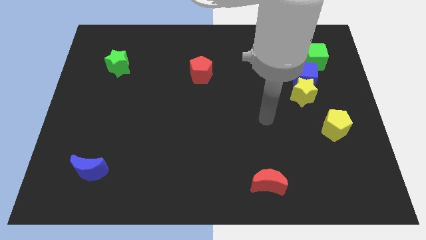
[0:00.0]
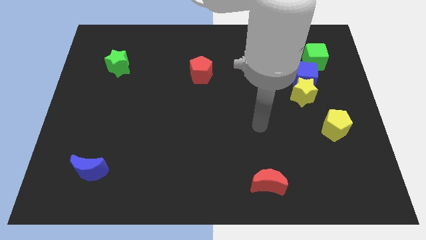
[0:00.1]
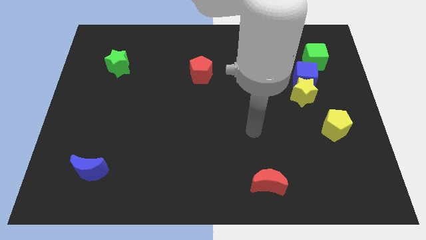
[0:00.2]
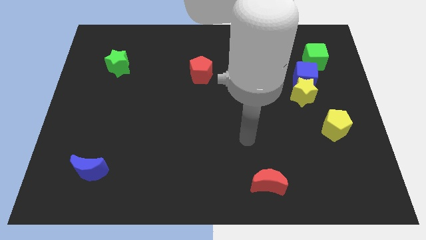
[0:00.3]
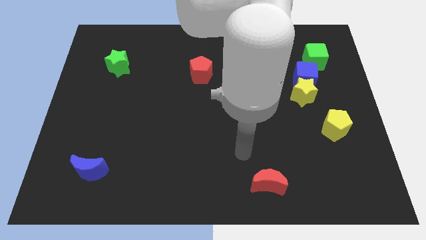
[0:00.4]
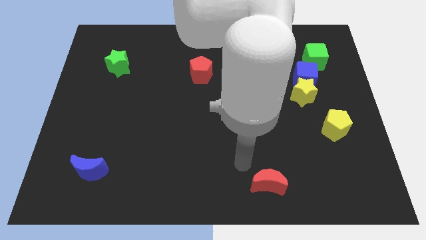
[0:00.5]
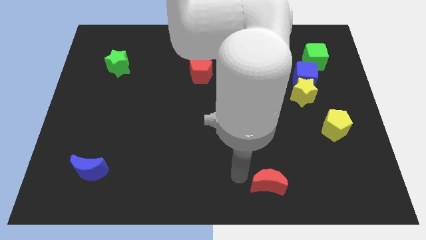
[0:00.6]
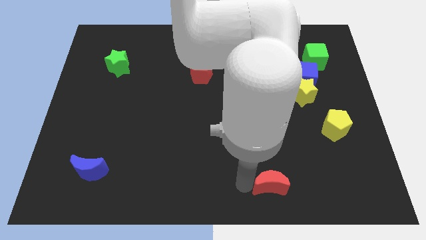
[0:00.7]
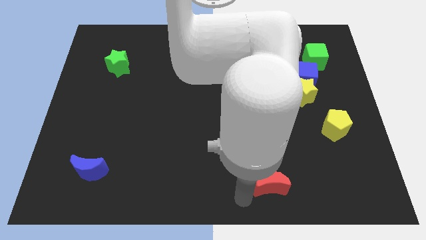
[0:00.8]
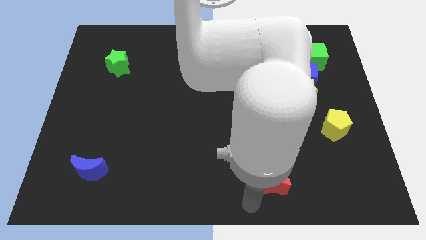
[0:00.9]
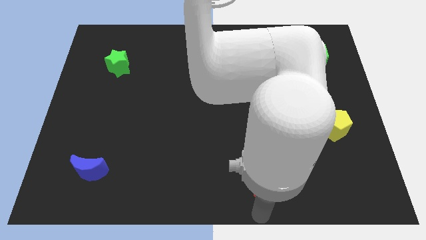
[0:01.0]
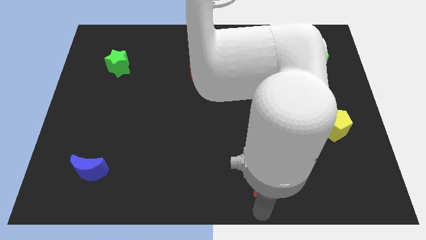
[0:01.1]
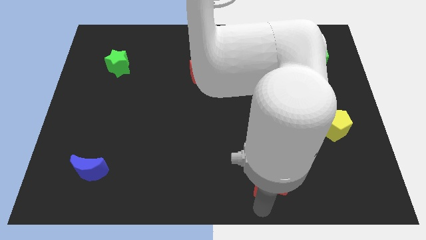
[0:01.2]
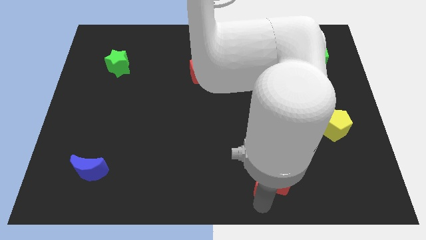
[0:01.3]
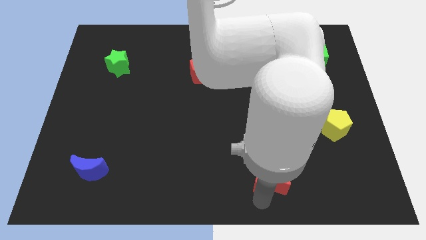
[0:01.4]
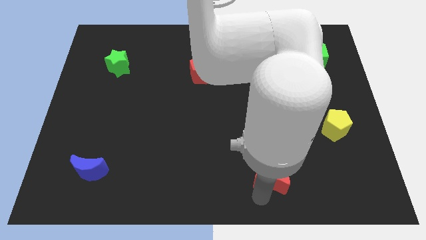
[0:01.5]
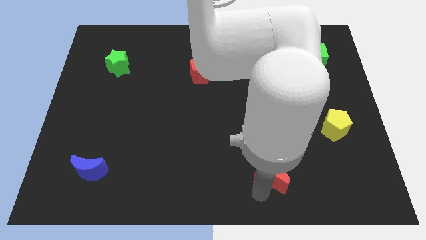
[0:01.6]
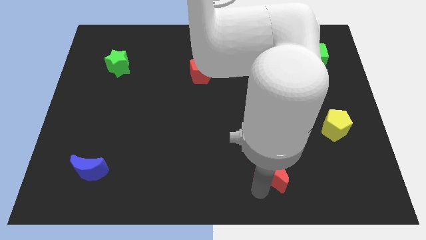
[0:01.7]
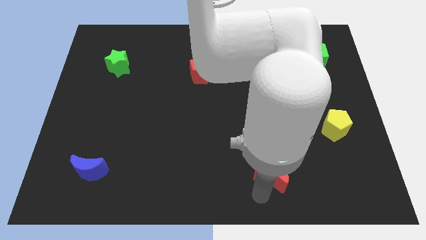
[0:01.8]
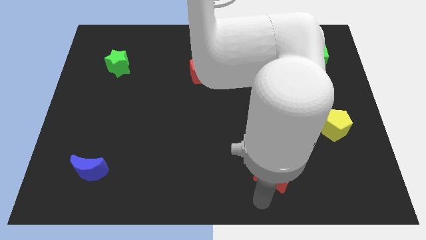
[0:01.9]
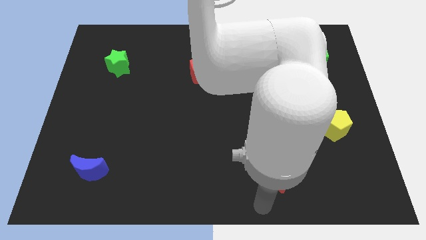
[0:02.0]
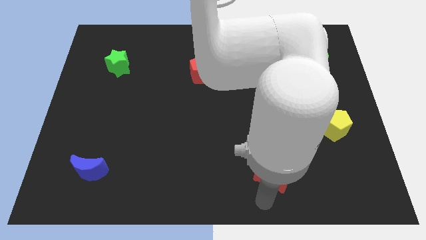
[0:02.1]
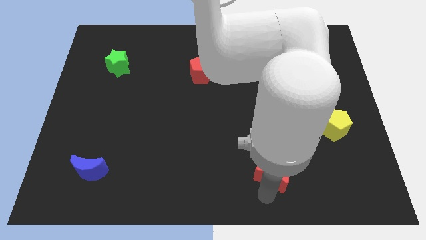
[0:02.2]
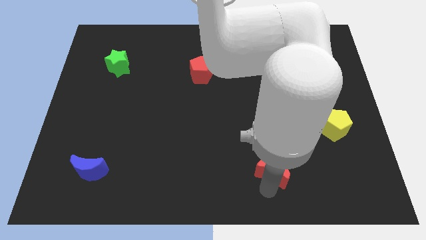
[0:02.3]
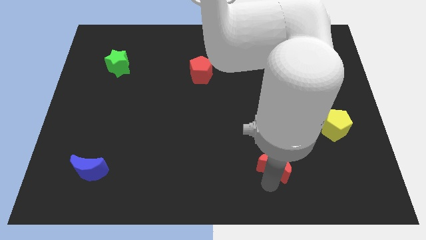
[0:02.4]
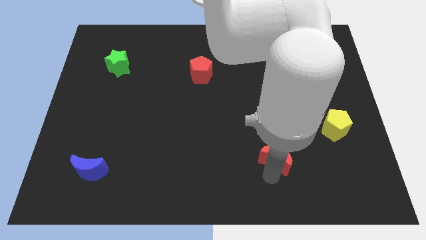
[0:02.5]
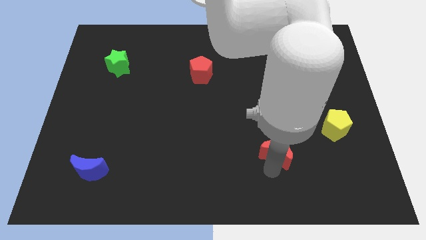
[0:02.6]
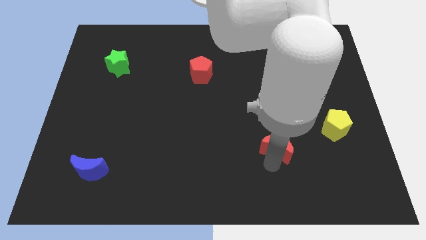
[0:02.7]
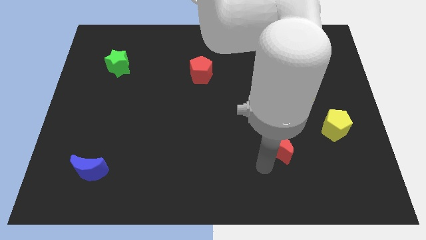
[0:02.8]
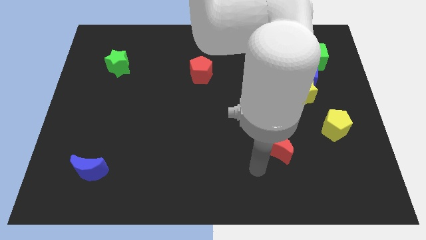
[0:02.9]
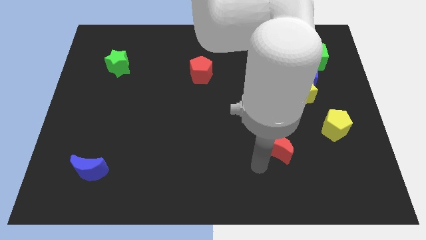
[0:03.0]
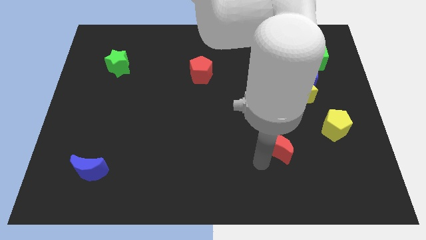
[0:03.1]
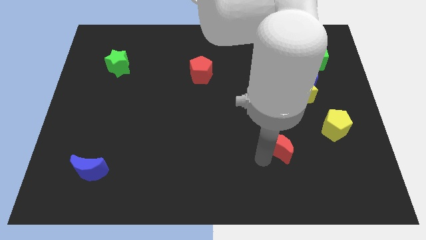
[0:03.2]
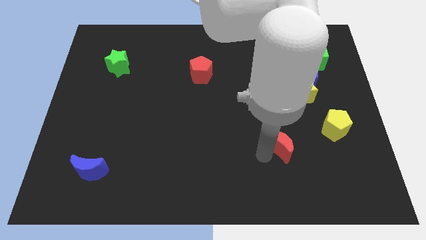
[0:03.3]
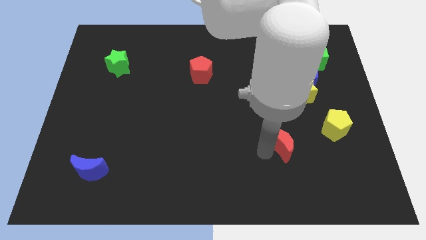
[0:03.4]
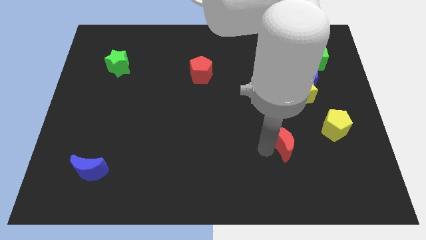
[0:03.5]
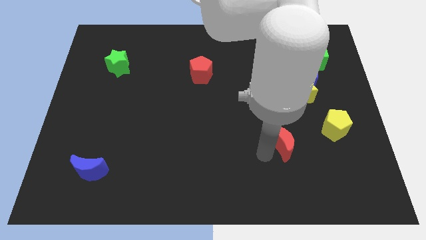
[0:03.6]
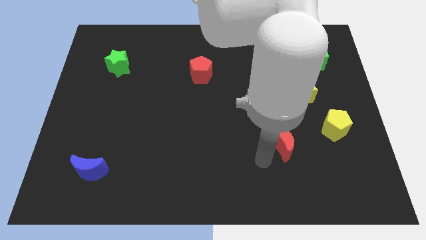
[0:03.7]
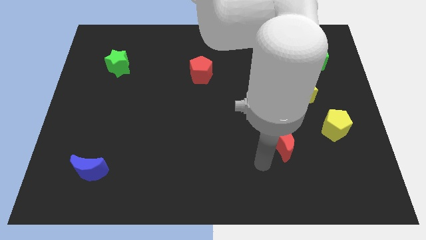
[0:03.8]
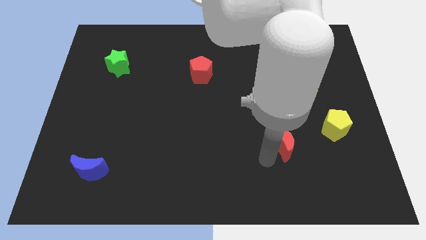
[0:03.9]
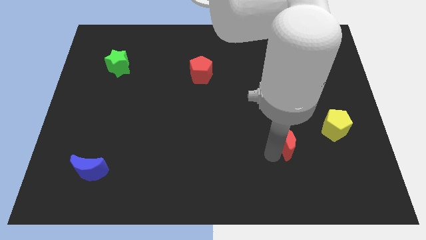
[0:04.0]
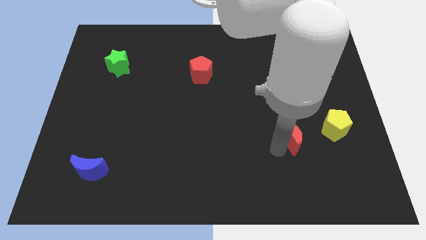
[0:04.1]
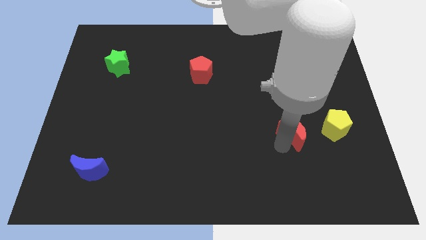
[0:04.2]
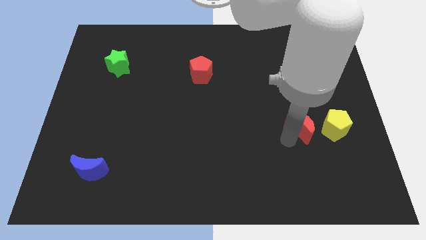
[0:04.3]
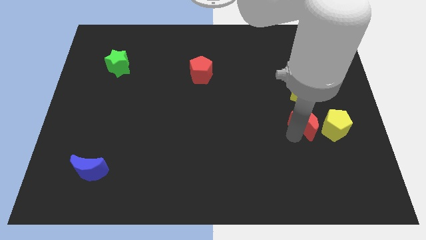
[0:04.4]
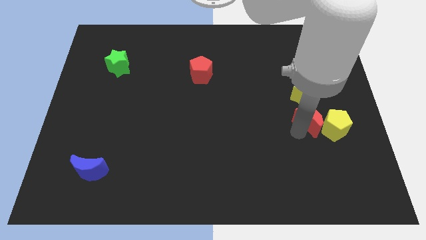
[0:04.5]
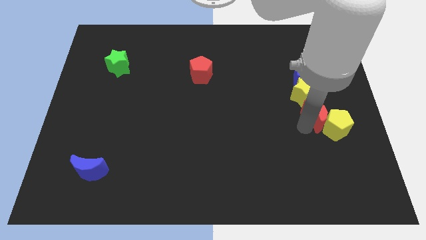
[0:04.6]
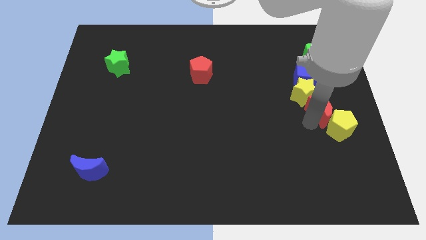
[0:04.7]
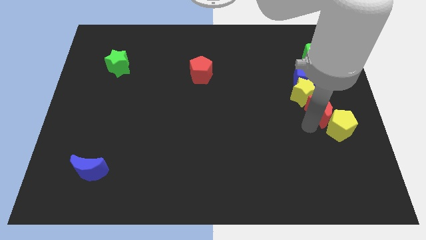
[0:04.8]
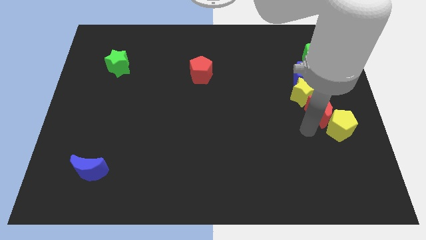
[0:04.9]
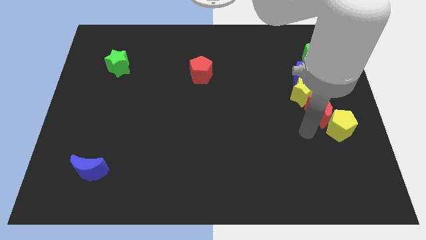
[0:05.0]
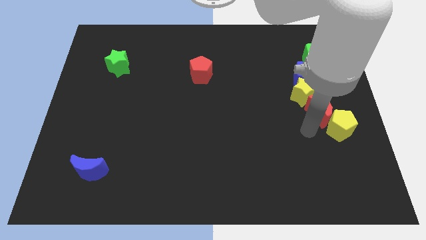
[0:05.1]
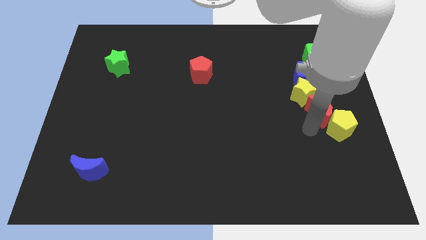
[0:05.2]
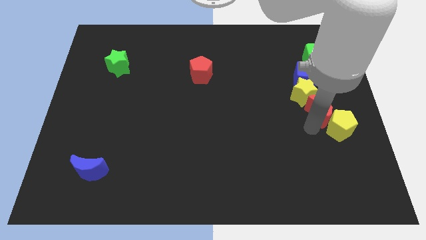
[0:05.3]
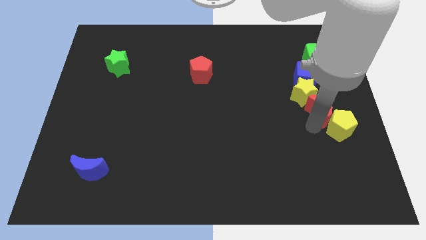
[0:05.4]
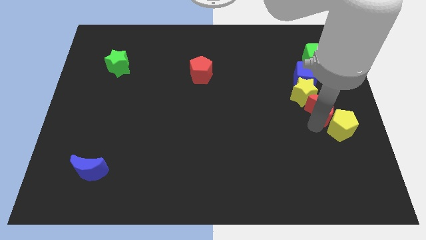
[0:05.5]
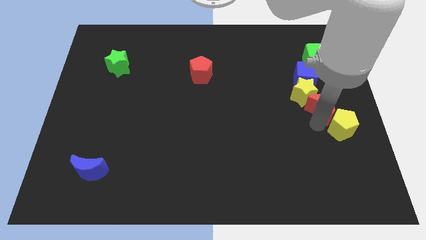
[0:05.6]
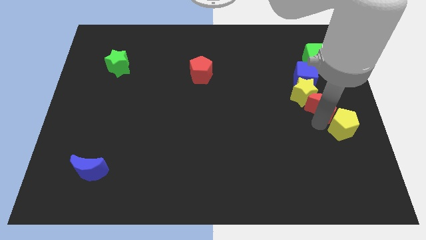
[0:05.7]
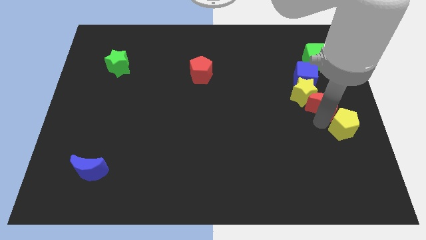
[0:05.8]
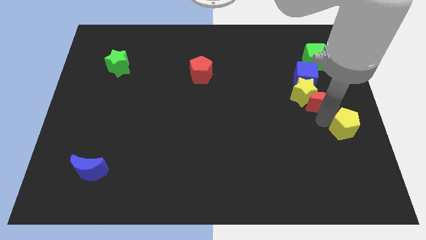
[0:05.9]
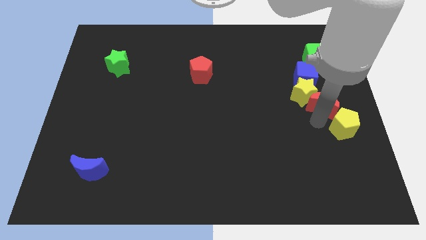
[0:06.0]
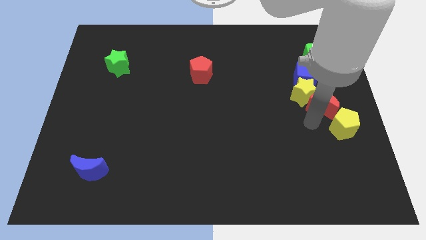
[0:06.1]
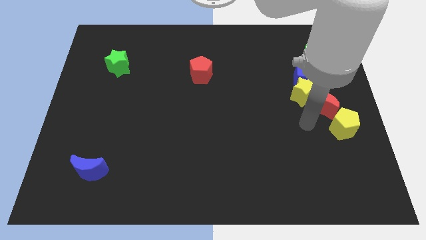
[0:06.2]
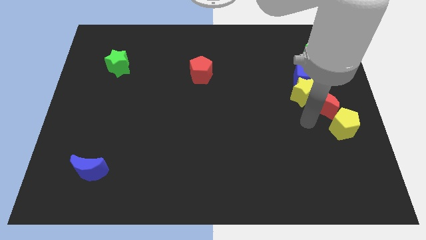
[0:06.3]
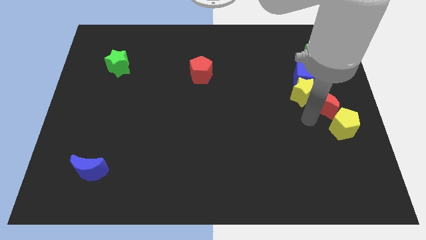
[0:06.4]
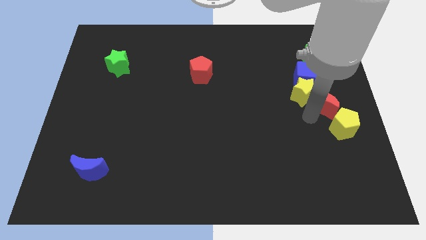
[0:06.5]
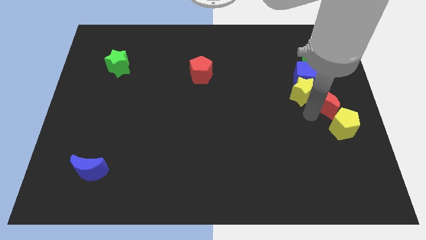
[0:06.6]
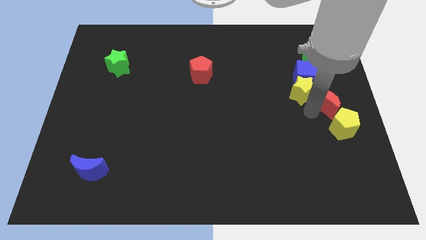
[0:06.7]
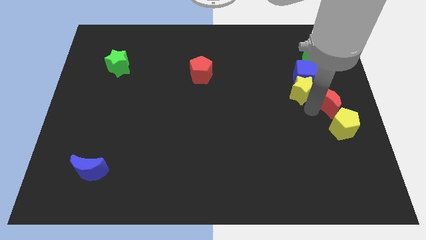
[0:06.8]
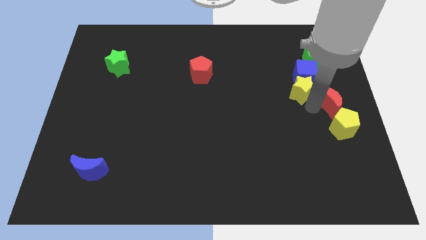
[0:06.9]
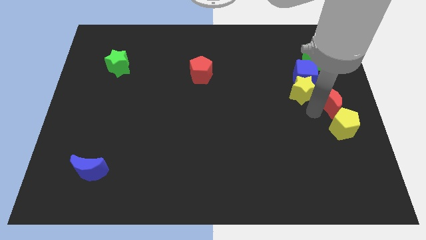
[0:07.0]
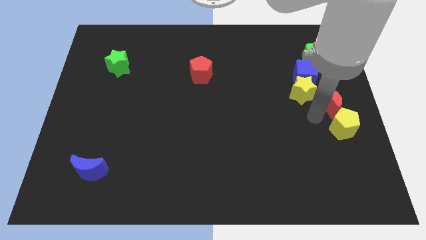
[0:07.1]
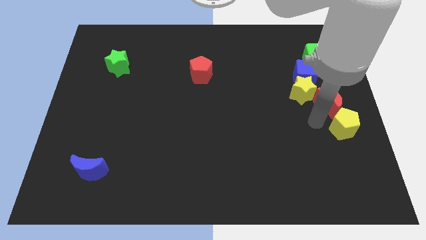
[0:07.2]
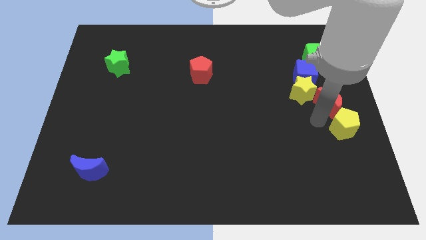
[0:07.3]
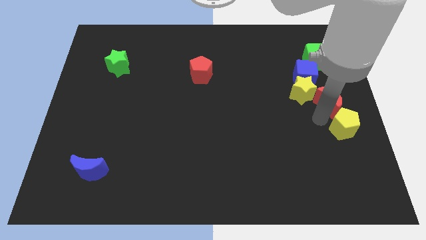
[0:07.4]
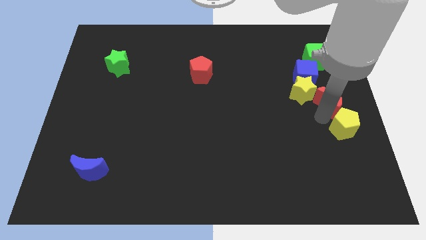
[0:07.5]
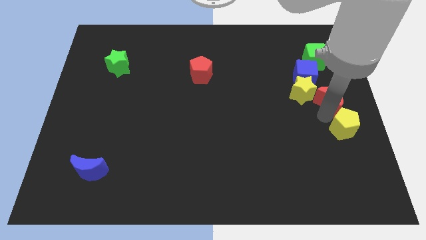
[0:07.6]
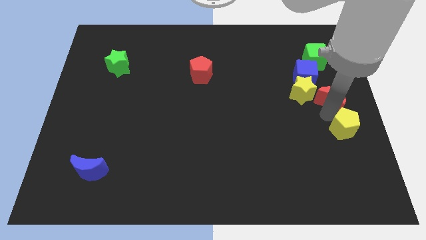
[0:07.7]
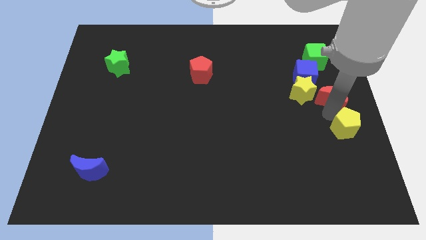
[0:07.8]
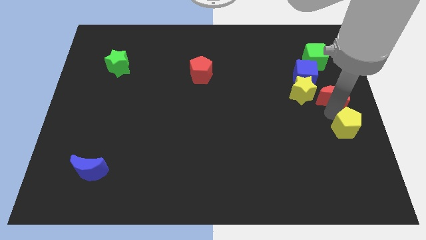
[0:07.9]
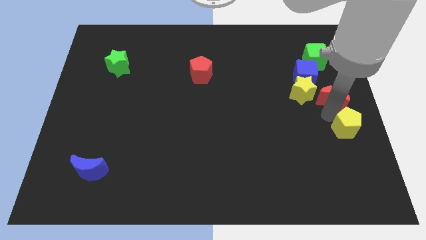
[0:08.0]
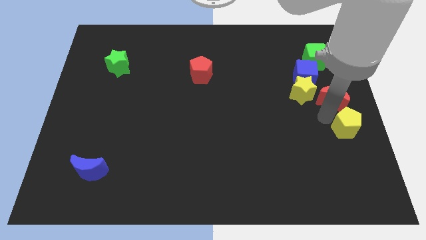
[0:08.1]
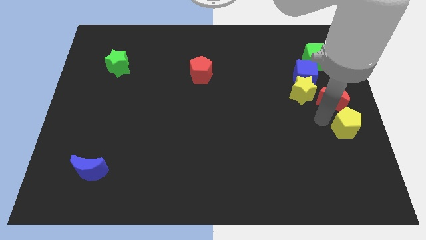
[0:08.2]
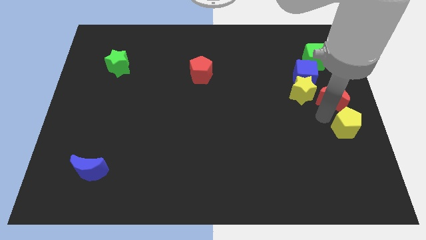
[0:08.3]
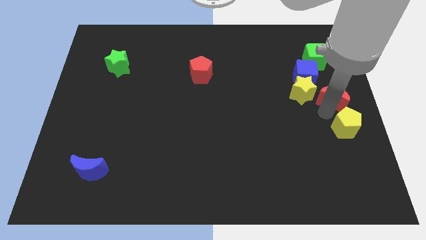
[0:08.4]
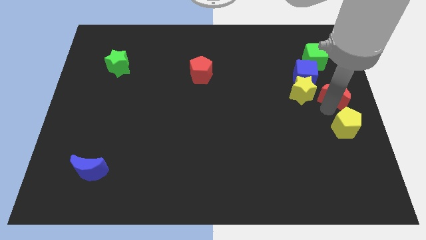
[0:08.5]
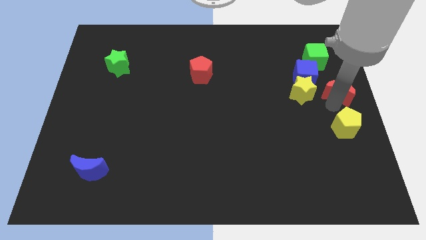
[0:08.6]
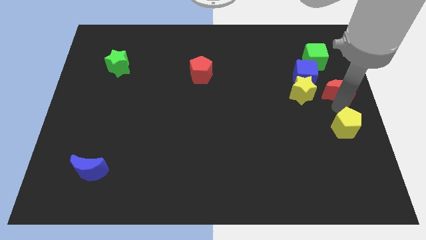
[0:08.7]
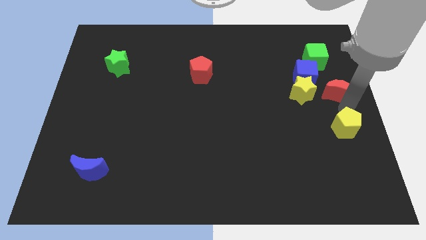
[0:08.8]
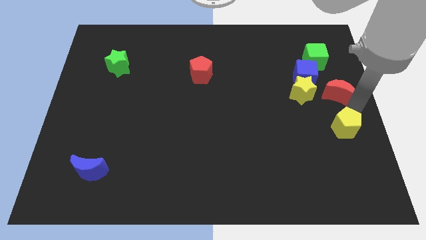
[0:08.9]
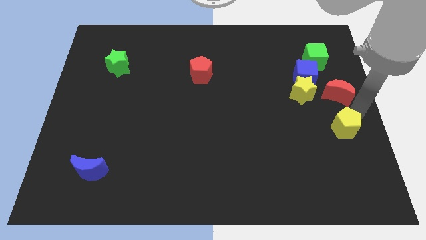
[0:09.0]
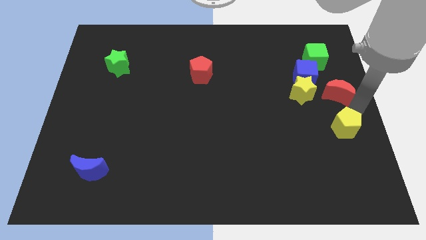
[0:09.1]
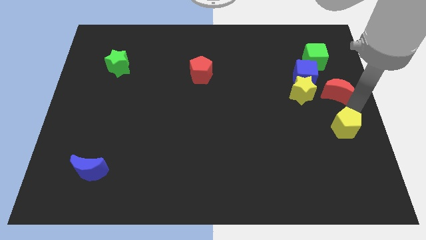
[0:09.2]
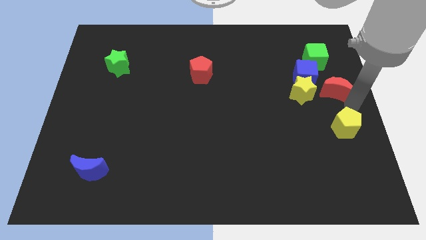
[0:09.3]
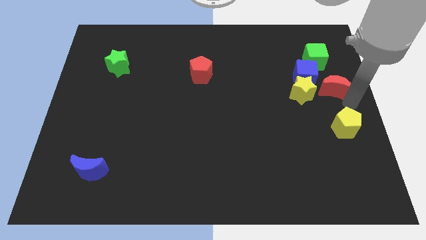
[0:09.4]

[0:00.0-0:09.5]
push the red moon diagonally up and to the right of the yellow star
